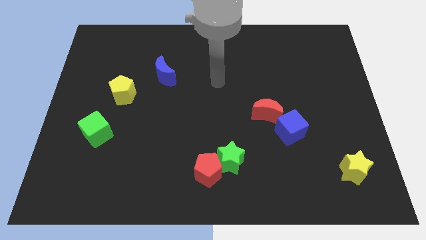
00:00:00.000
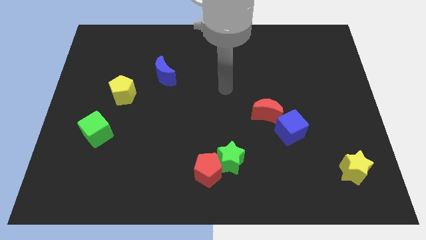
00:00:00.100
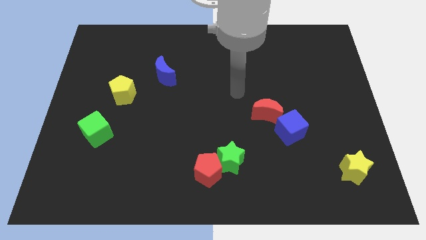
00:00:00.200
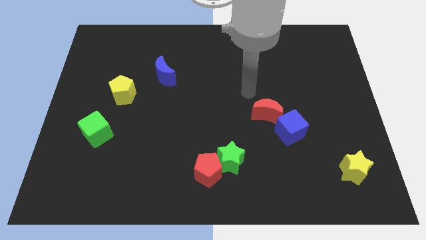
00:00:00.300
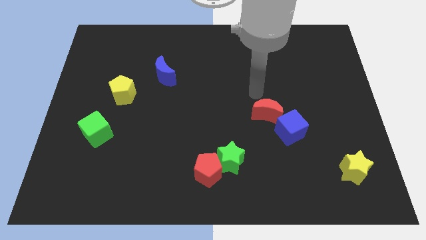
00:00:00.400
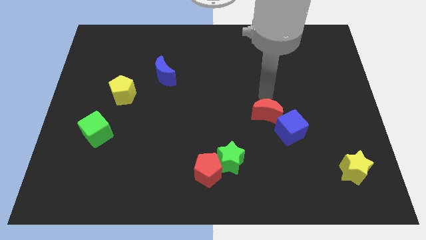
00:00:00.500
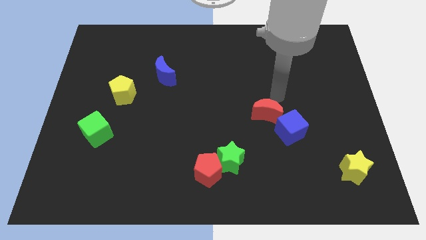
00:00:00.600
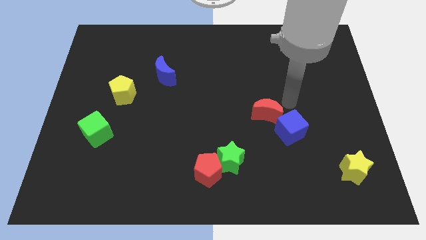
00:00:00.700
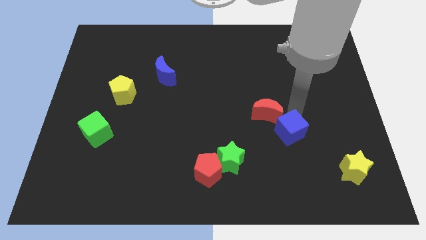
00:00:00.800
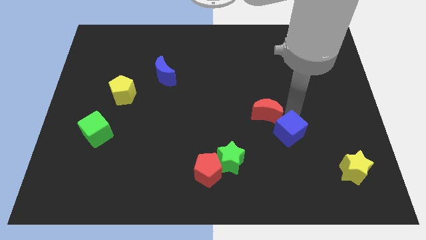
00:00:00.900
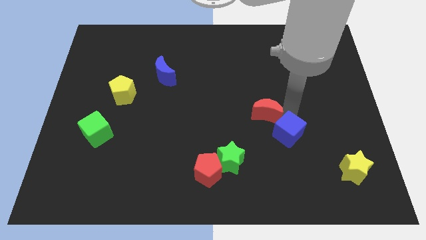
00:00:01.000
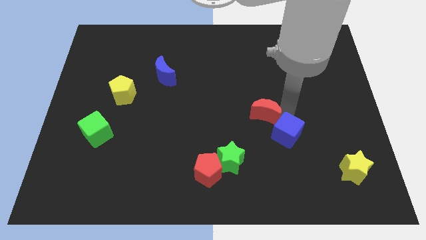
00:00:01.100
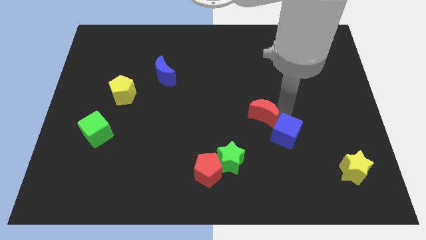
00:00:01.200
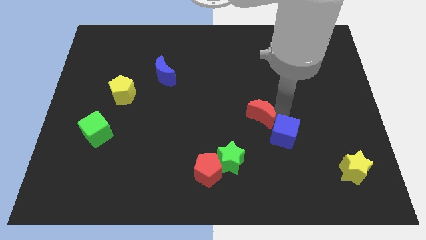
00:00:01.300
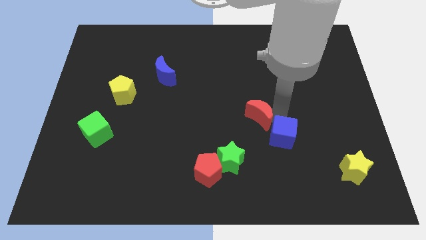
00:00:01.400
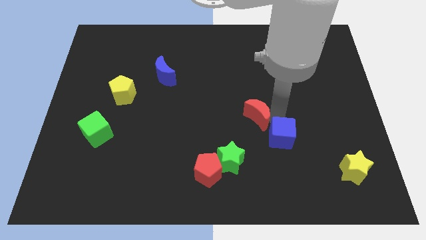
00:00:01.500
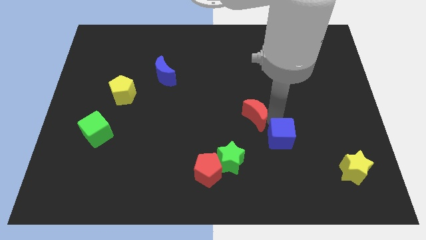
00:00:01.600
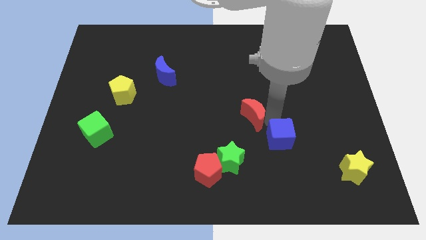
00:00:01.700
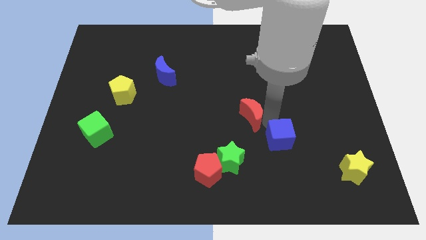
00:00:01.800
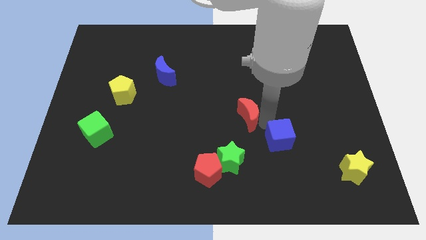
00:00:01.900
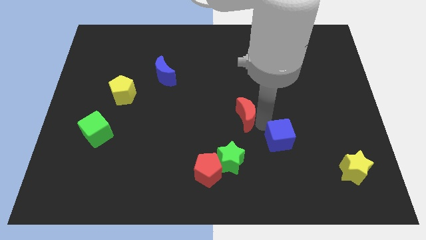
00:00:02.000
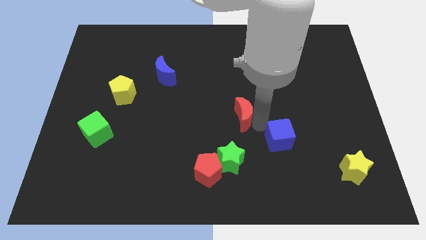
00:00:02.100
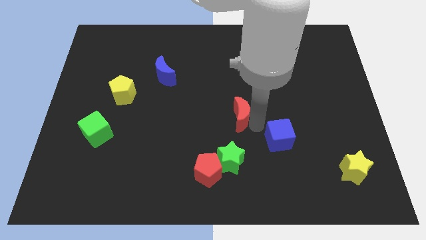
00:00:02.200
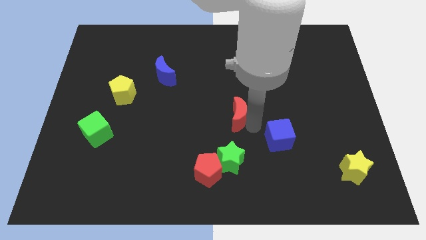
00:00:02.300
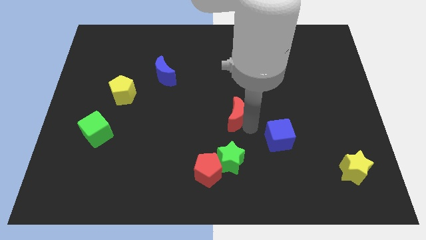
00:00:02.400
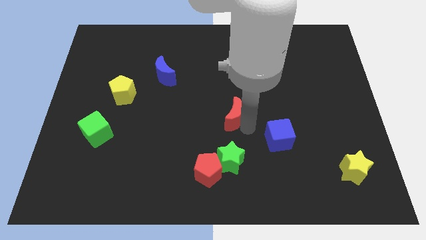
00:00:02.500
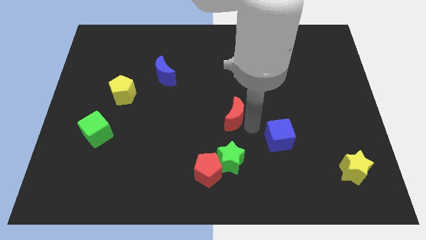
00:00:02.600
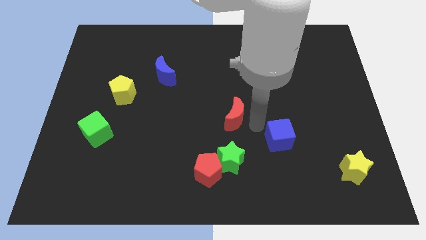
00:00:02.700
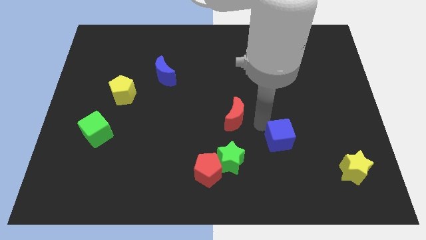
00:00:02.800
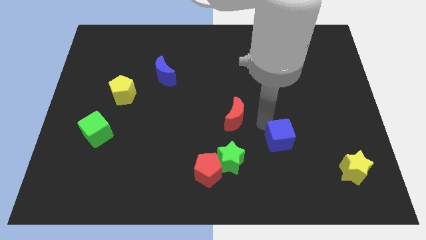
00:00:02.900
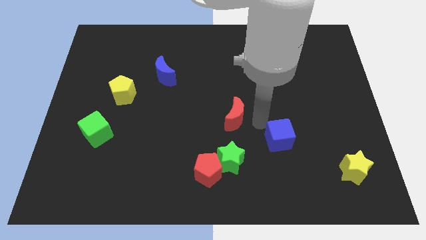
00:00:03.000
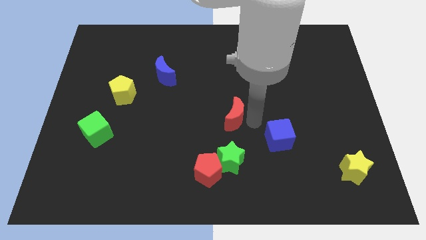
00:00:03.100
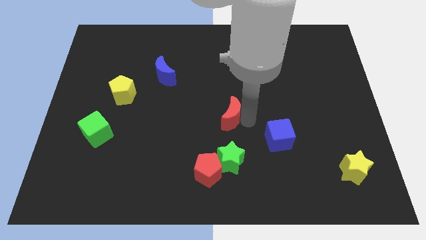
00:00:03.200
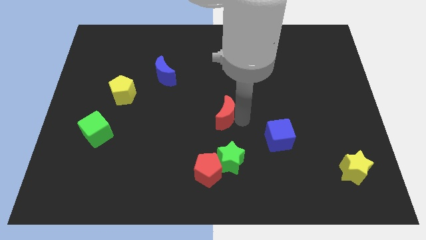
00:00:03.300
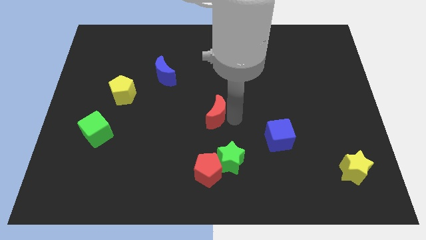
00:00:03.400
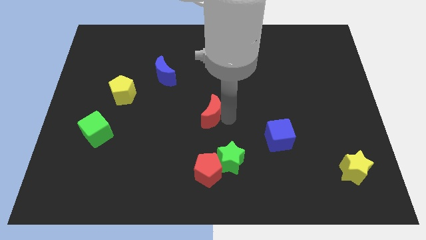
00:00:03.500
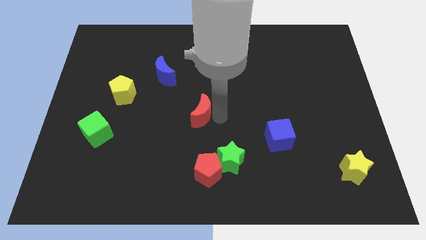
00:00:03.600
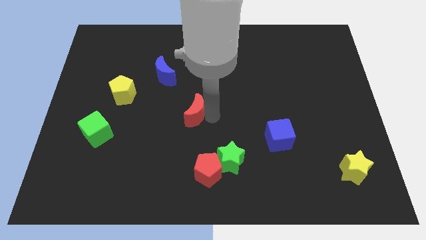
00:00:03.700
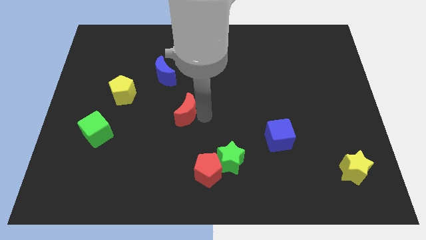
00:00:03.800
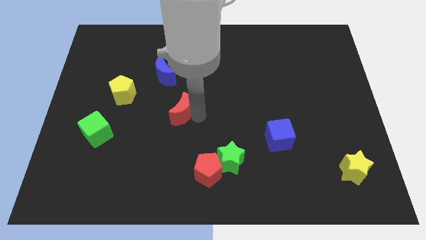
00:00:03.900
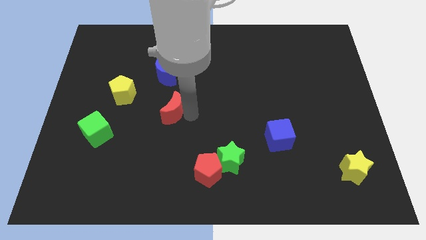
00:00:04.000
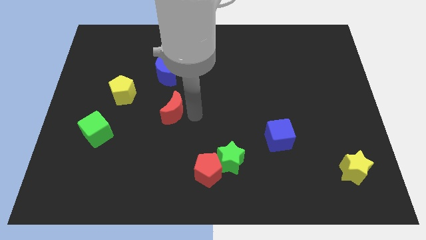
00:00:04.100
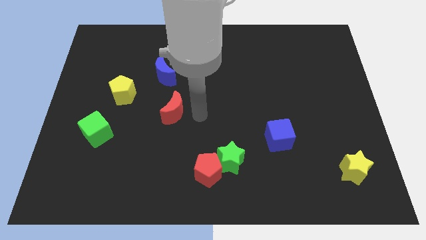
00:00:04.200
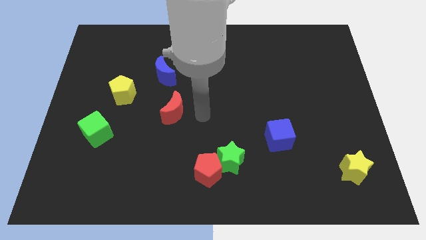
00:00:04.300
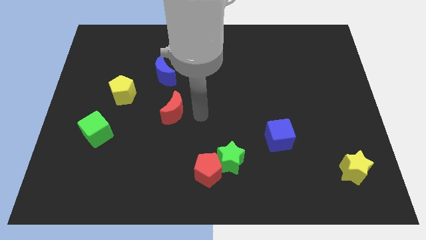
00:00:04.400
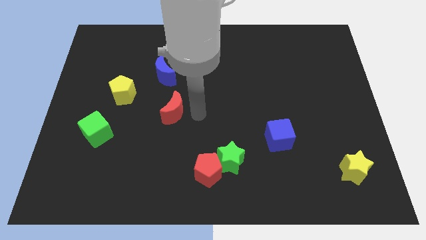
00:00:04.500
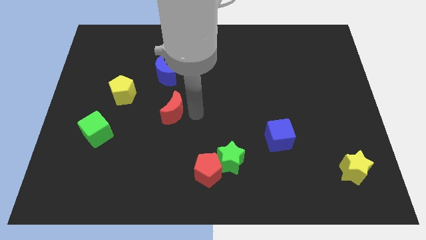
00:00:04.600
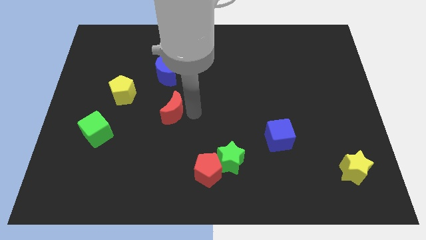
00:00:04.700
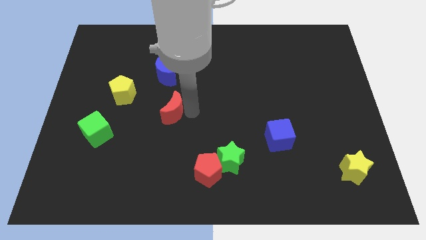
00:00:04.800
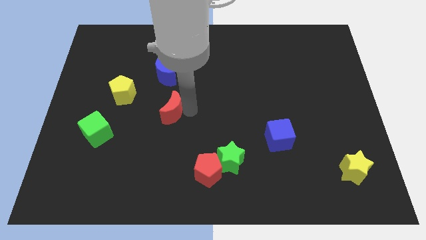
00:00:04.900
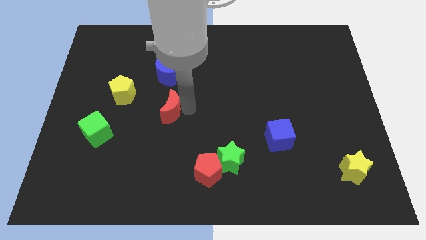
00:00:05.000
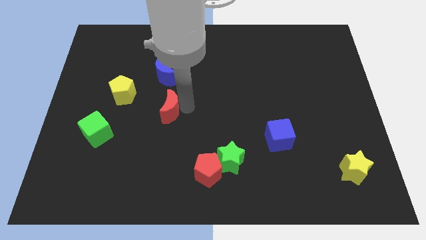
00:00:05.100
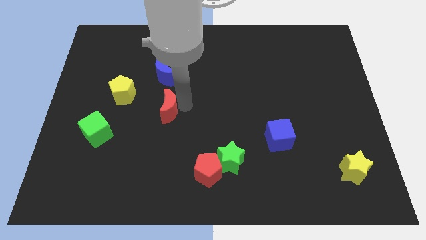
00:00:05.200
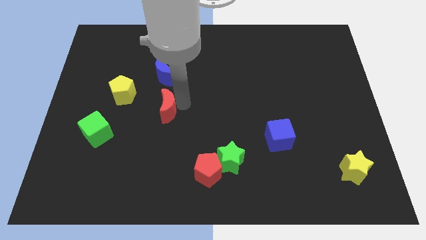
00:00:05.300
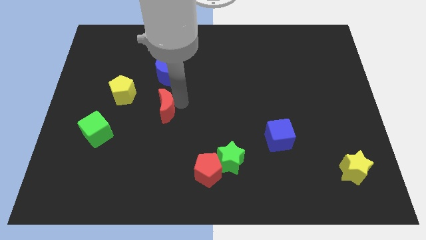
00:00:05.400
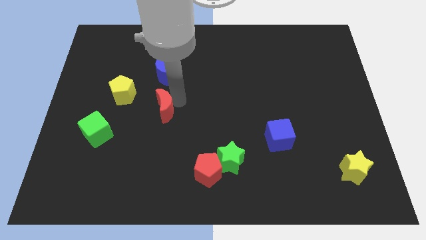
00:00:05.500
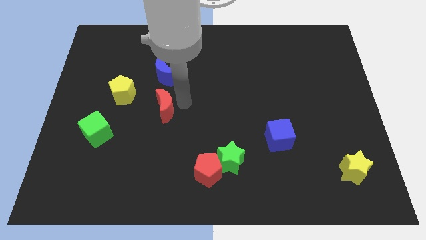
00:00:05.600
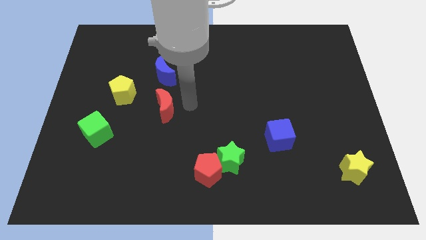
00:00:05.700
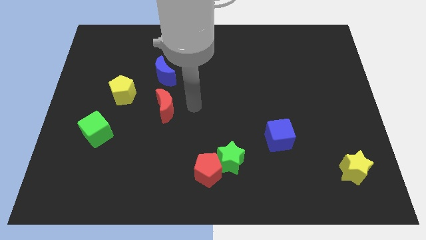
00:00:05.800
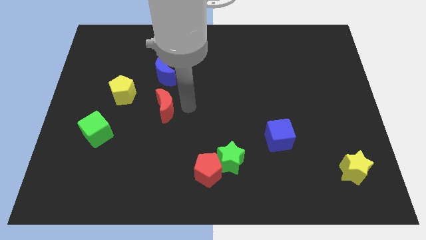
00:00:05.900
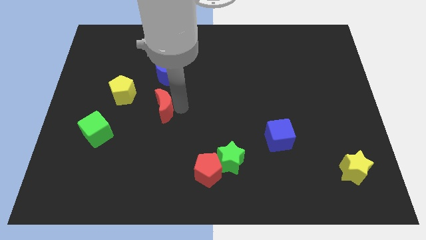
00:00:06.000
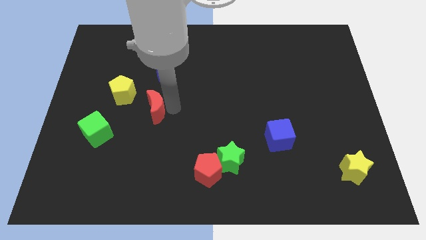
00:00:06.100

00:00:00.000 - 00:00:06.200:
put the red moon to the bottom right of the yellow pentagon
